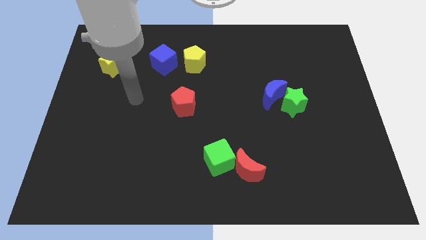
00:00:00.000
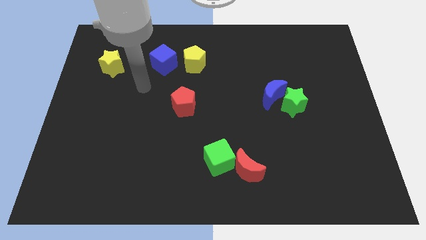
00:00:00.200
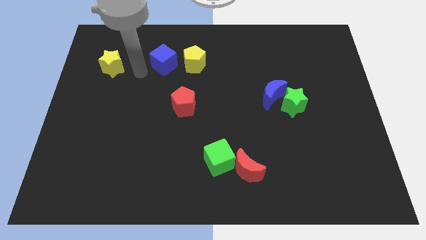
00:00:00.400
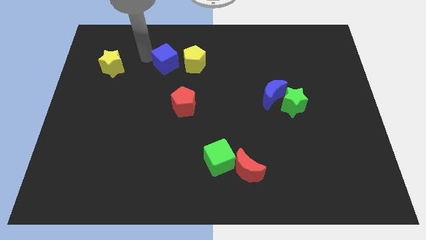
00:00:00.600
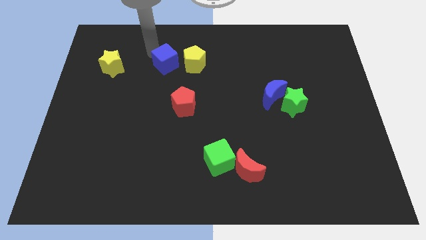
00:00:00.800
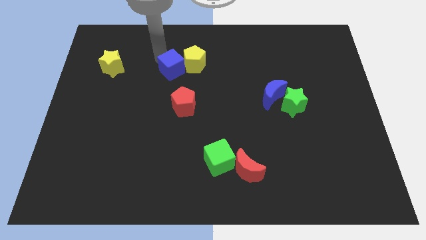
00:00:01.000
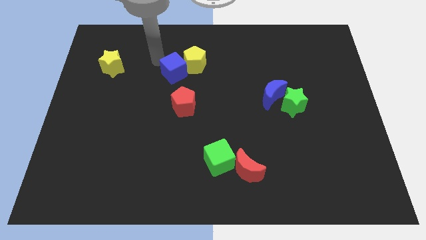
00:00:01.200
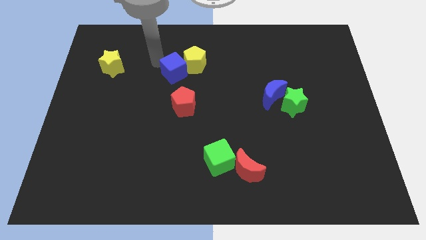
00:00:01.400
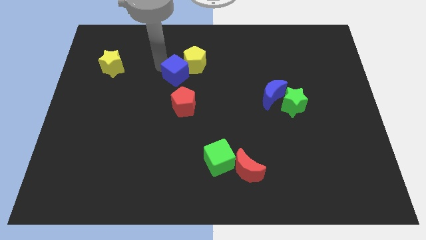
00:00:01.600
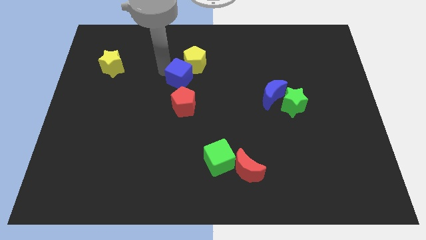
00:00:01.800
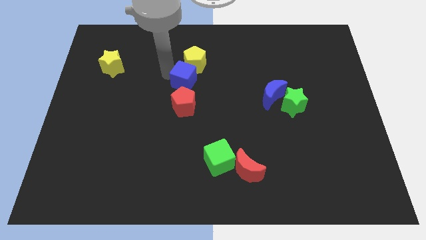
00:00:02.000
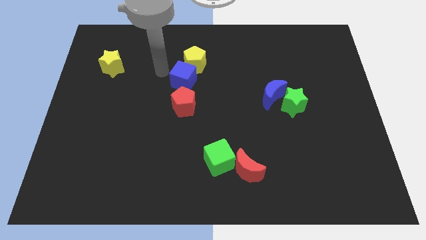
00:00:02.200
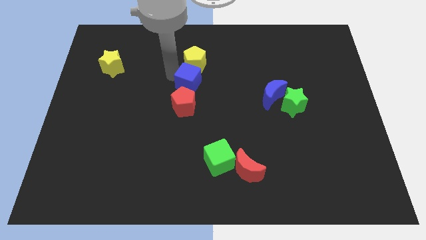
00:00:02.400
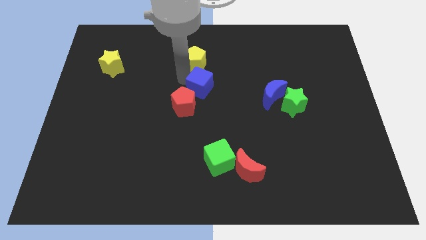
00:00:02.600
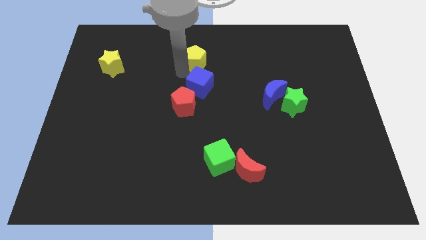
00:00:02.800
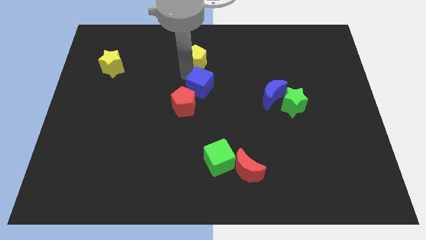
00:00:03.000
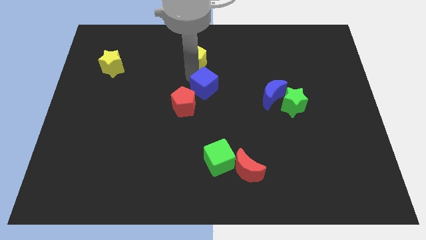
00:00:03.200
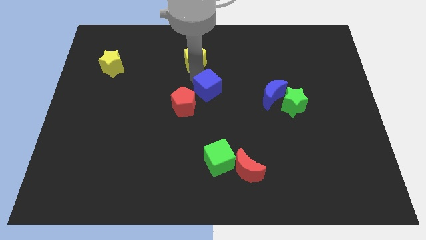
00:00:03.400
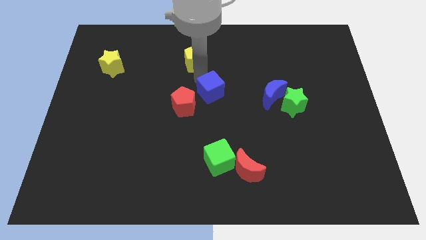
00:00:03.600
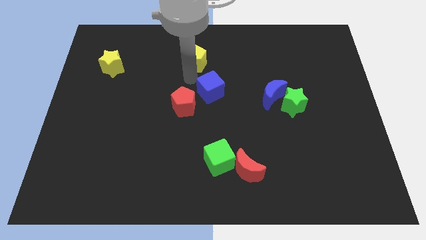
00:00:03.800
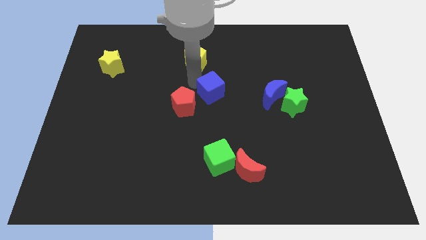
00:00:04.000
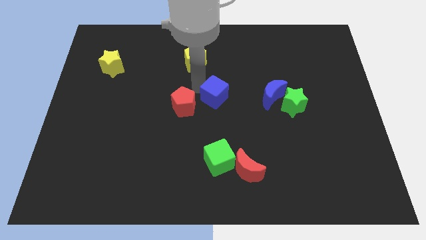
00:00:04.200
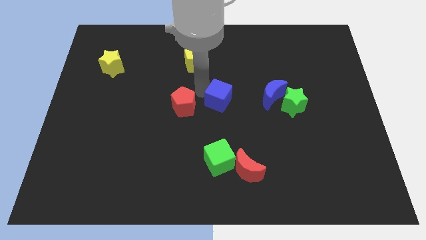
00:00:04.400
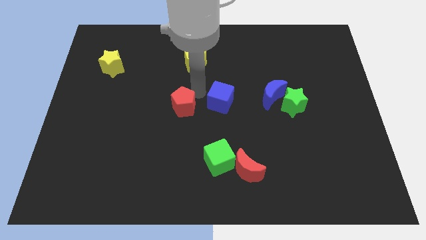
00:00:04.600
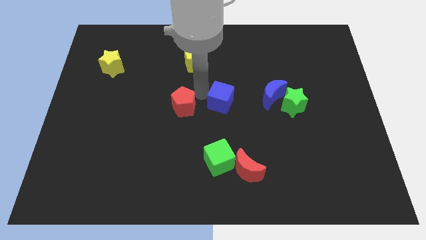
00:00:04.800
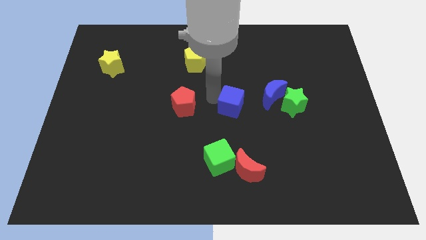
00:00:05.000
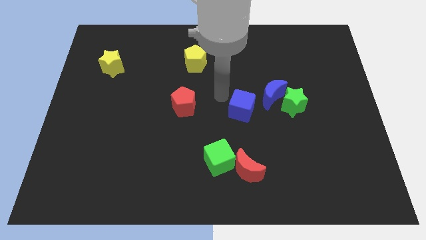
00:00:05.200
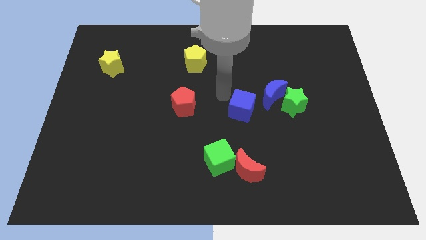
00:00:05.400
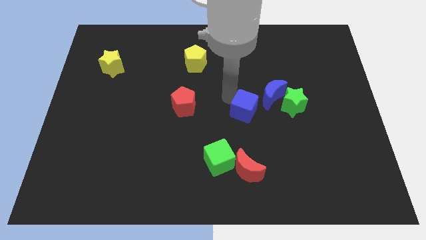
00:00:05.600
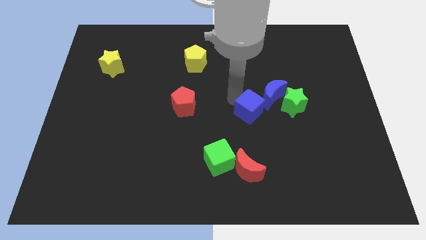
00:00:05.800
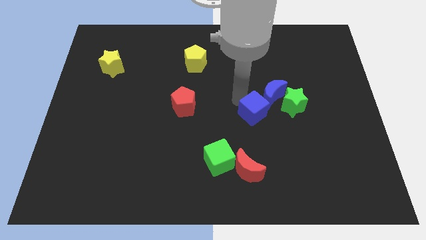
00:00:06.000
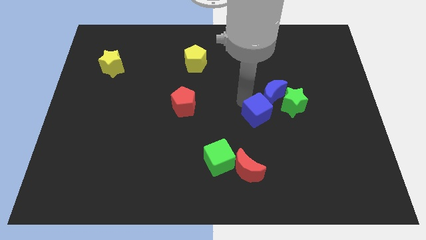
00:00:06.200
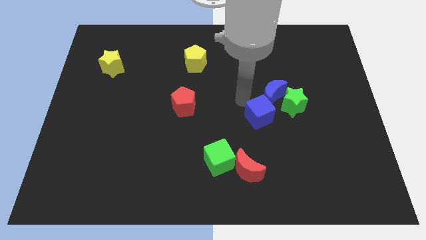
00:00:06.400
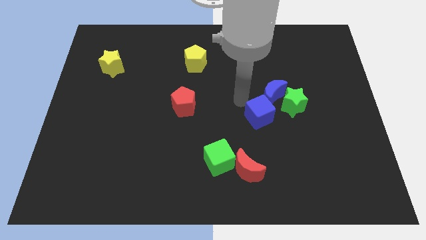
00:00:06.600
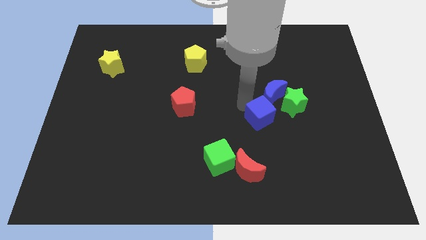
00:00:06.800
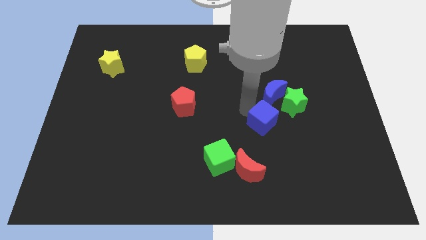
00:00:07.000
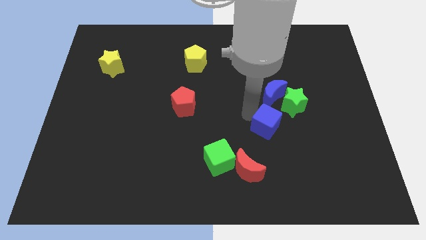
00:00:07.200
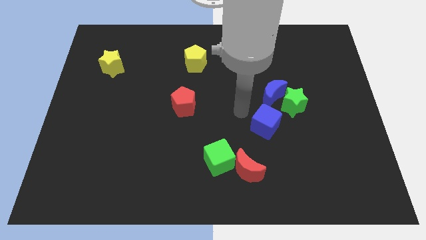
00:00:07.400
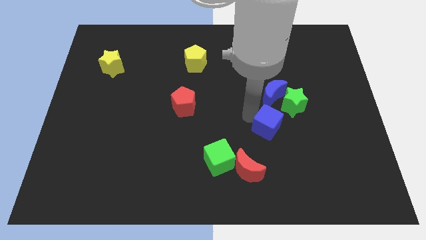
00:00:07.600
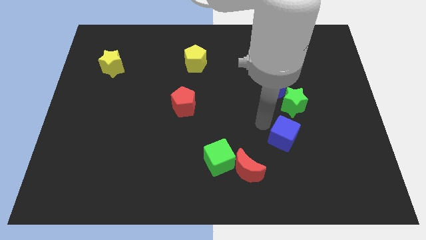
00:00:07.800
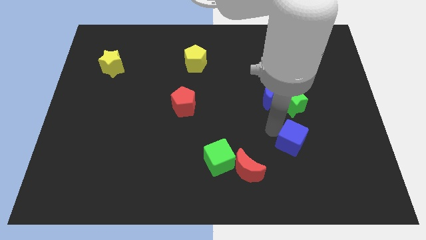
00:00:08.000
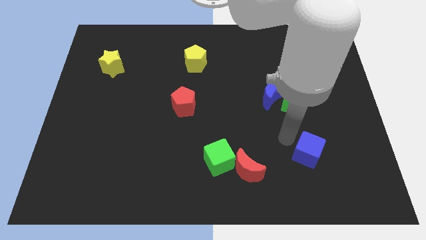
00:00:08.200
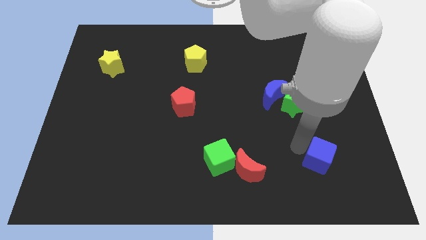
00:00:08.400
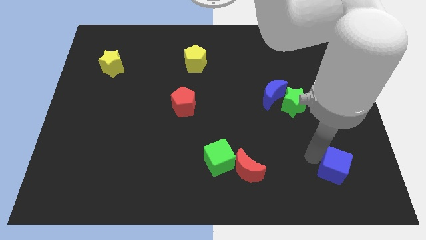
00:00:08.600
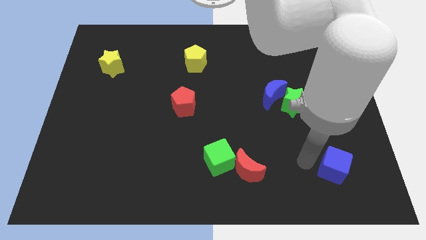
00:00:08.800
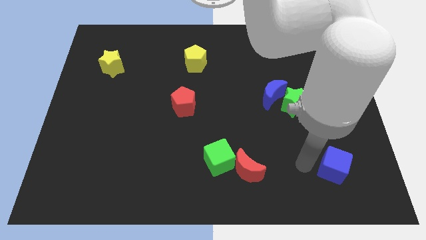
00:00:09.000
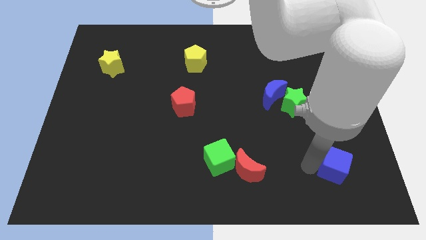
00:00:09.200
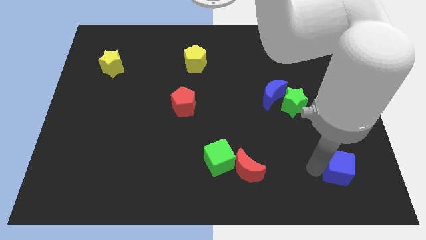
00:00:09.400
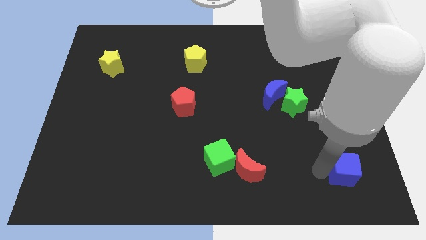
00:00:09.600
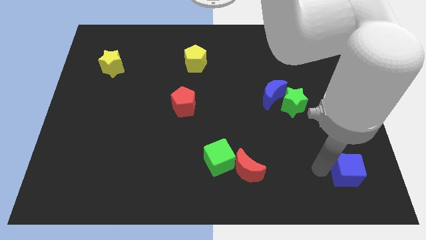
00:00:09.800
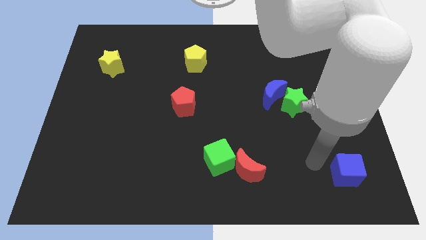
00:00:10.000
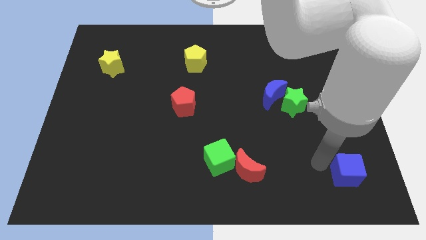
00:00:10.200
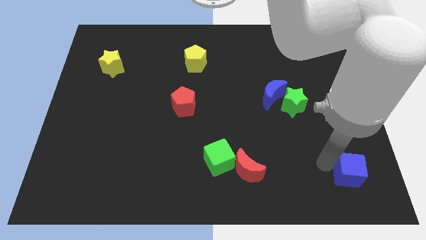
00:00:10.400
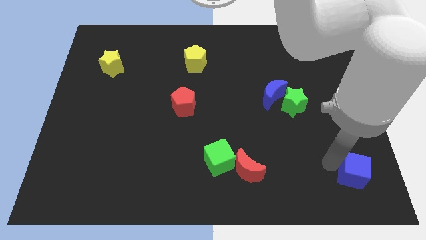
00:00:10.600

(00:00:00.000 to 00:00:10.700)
move the blue cube to the bottom right

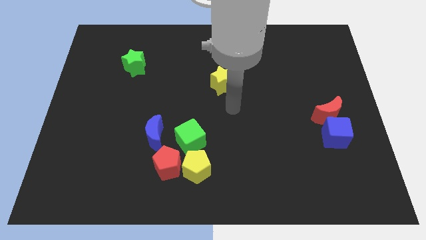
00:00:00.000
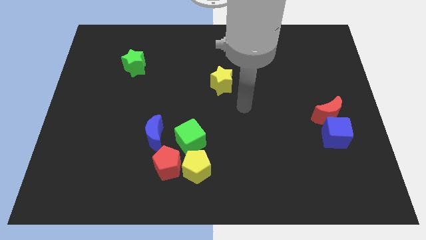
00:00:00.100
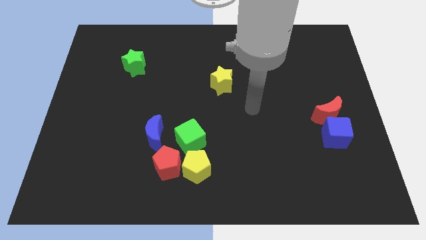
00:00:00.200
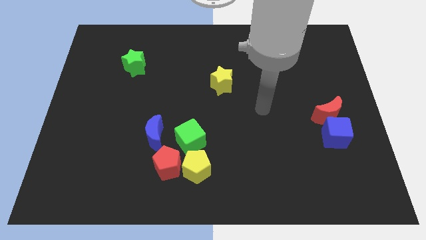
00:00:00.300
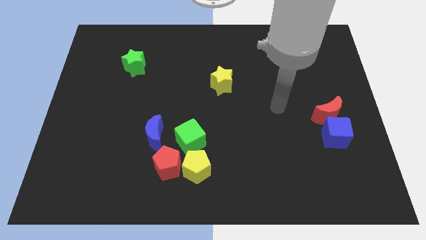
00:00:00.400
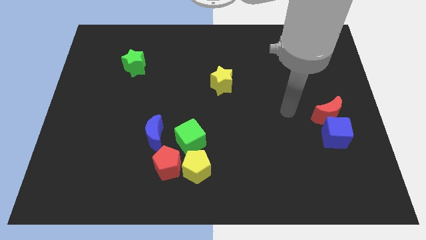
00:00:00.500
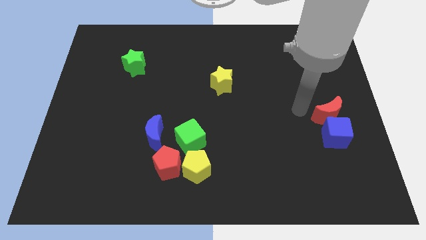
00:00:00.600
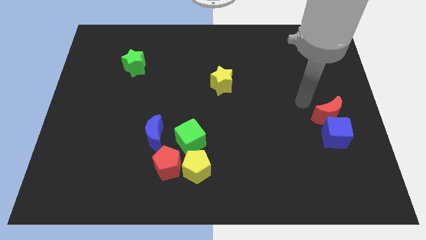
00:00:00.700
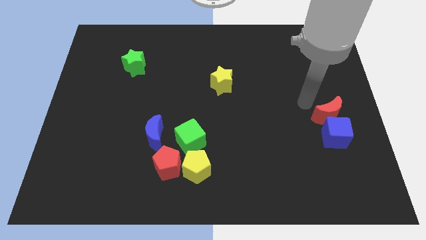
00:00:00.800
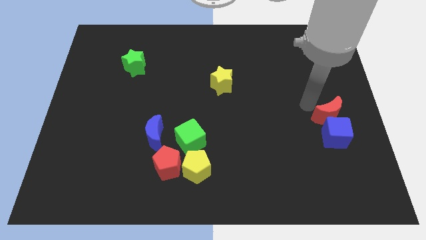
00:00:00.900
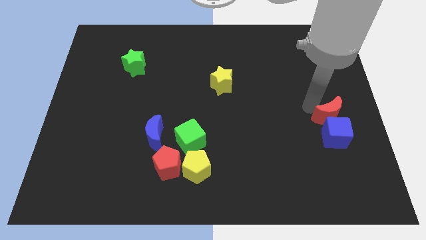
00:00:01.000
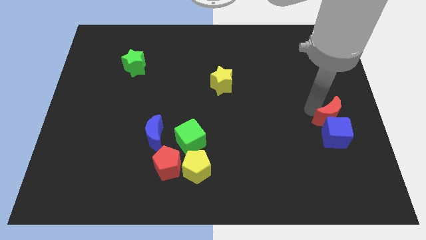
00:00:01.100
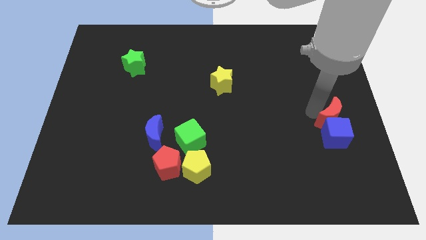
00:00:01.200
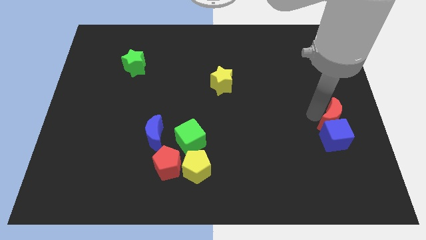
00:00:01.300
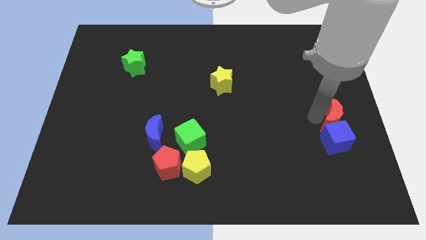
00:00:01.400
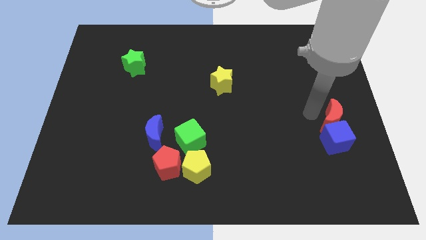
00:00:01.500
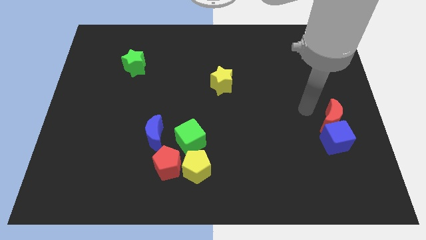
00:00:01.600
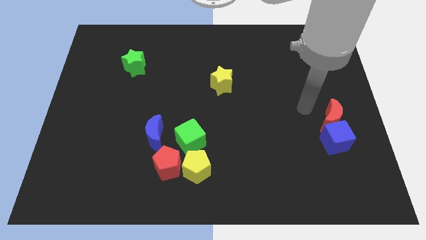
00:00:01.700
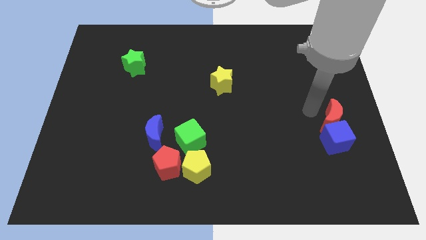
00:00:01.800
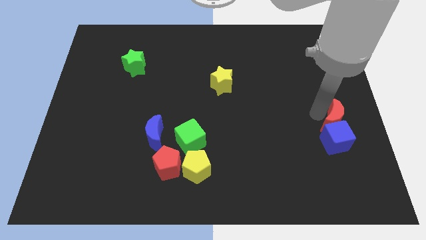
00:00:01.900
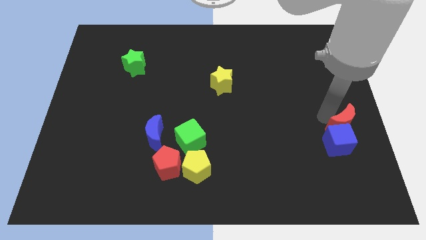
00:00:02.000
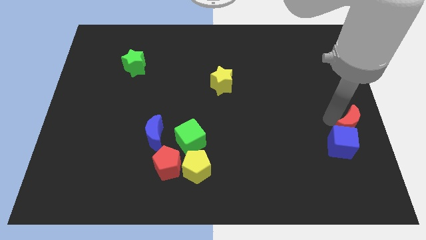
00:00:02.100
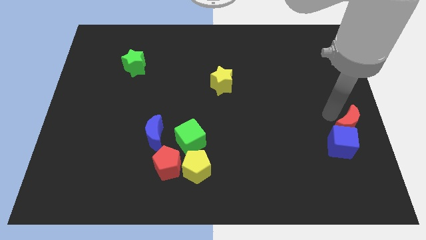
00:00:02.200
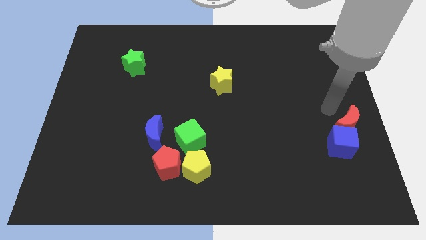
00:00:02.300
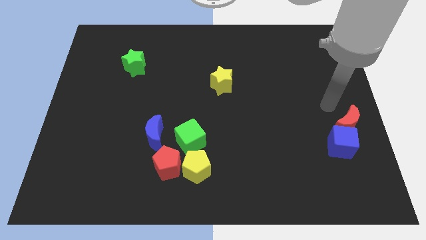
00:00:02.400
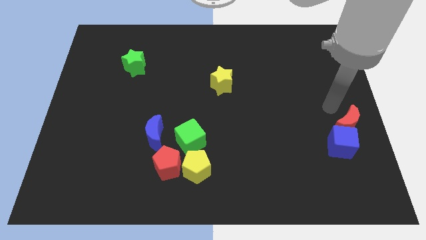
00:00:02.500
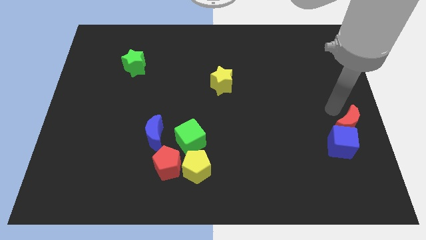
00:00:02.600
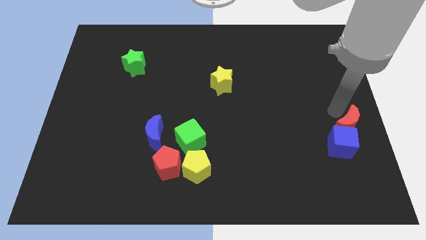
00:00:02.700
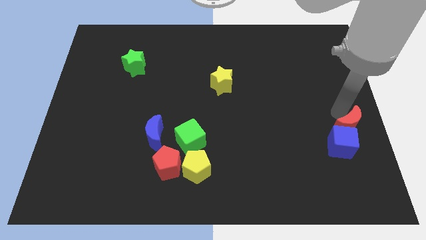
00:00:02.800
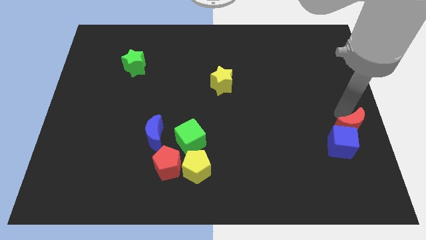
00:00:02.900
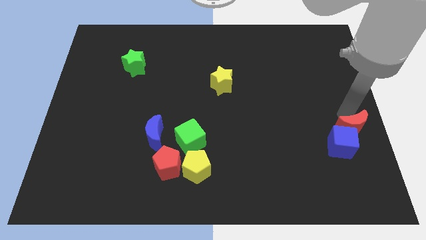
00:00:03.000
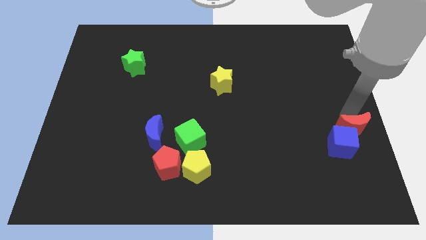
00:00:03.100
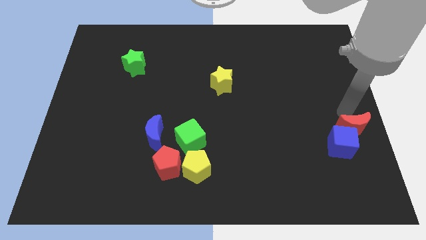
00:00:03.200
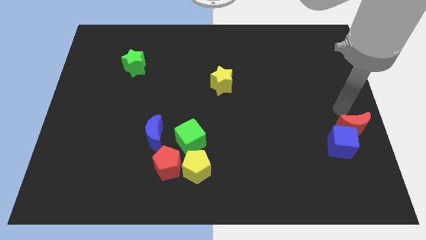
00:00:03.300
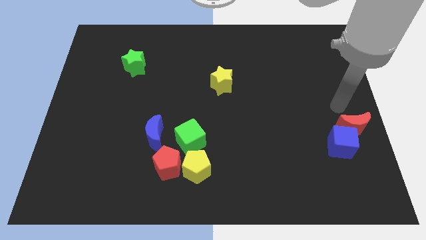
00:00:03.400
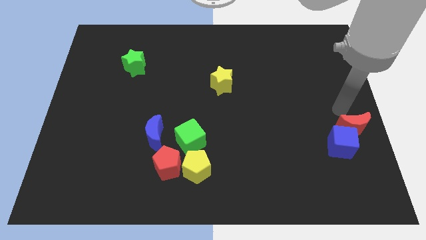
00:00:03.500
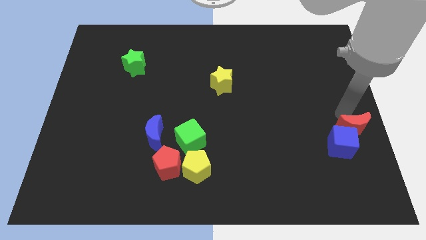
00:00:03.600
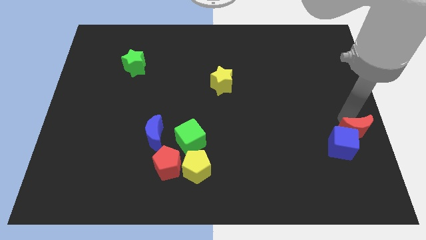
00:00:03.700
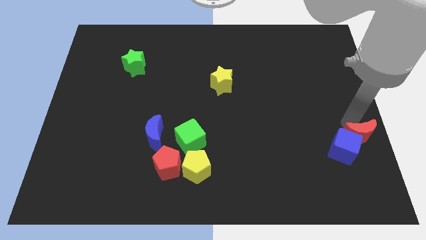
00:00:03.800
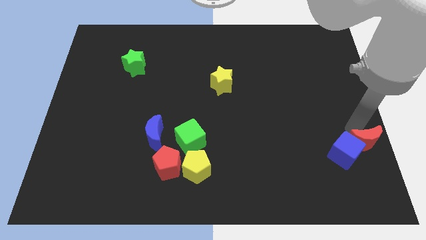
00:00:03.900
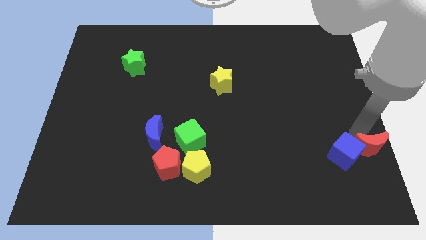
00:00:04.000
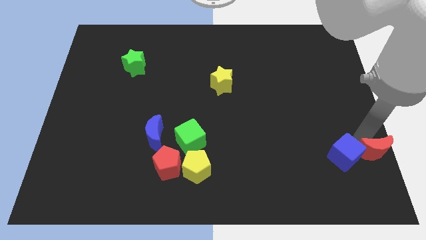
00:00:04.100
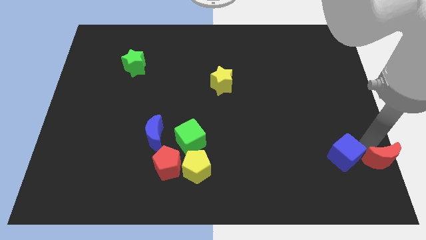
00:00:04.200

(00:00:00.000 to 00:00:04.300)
put the red moon to the lower right corner
